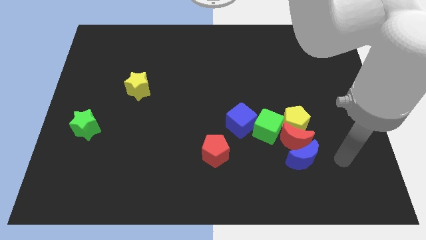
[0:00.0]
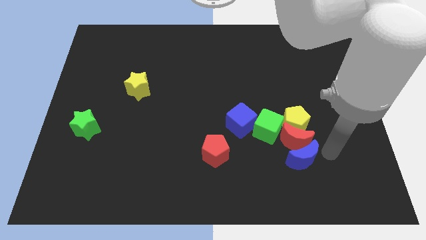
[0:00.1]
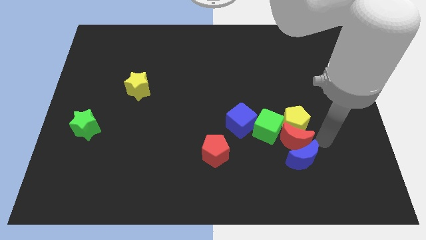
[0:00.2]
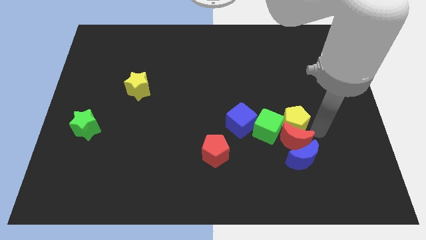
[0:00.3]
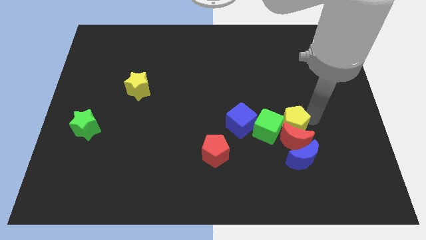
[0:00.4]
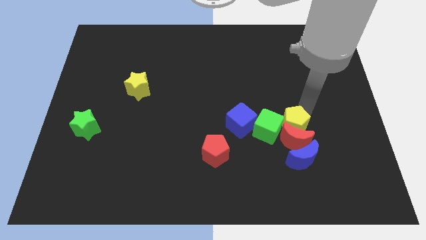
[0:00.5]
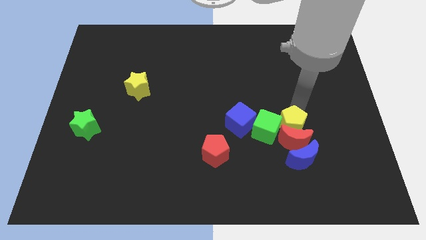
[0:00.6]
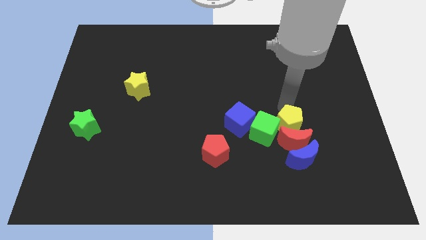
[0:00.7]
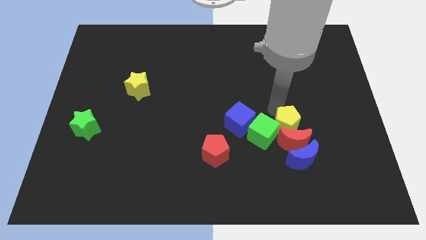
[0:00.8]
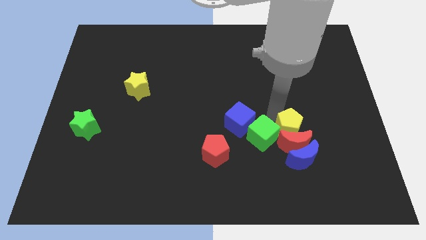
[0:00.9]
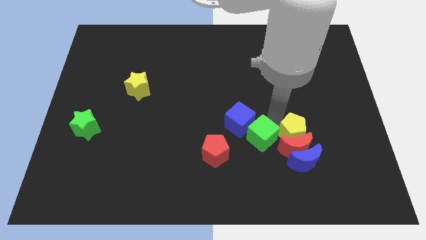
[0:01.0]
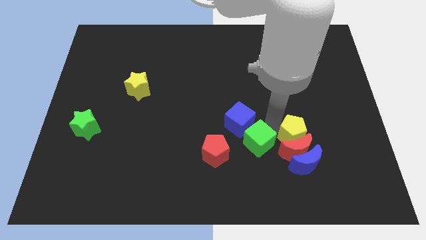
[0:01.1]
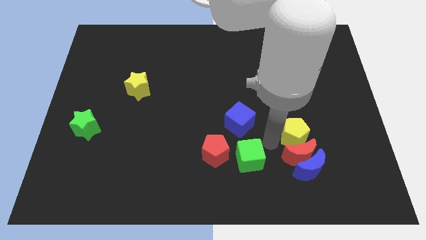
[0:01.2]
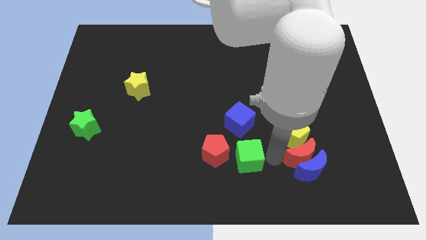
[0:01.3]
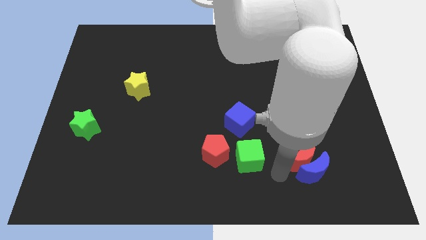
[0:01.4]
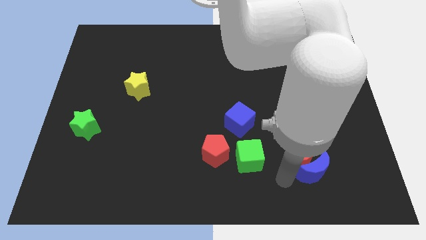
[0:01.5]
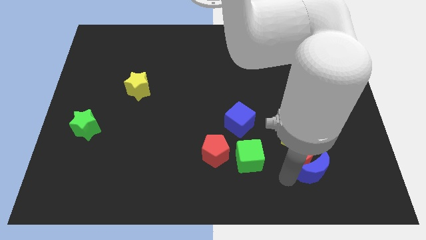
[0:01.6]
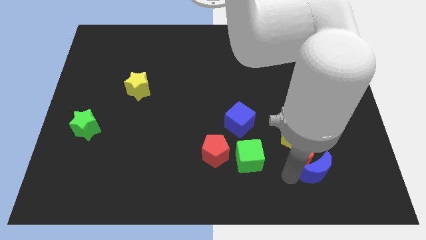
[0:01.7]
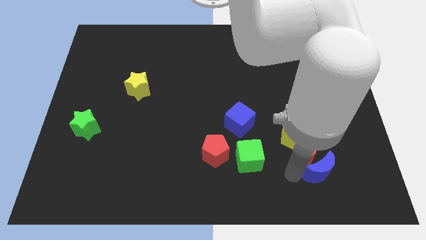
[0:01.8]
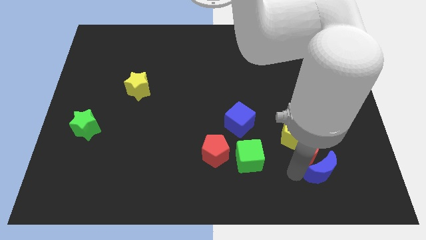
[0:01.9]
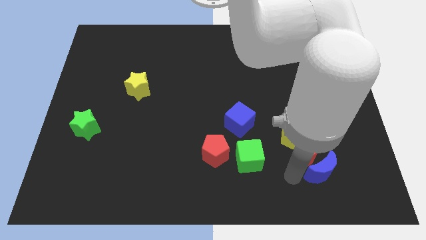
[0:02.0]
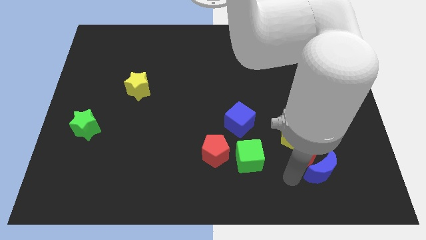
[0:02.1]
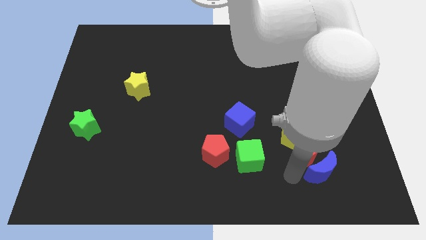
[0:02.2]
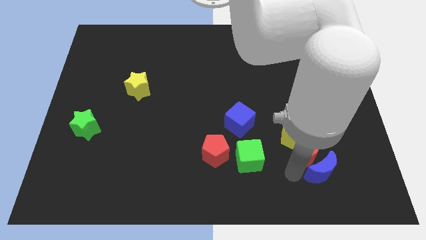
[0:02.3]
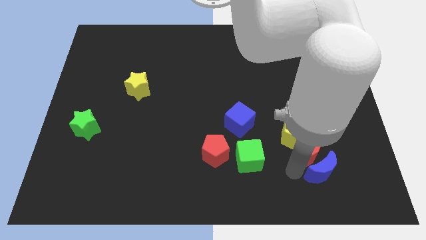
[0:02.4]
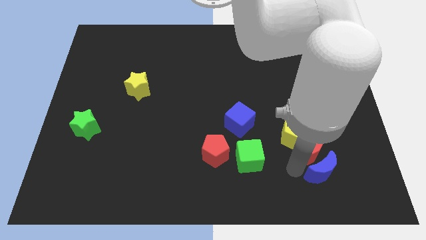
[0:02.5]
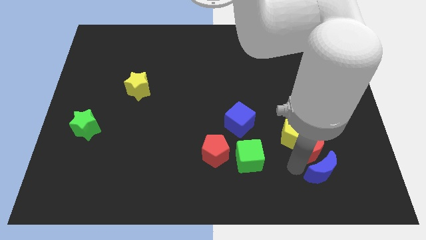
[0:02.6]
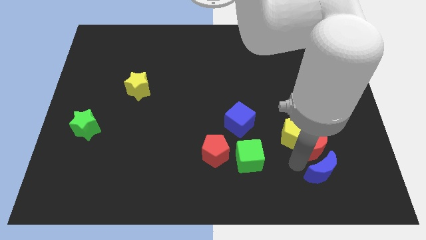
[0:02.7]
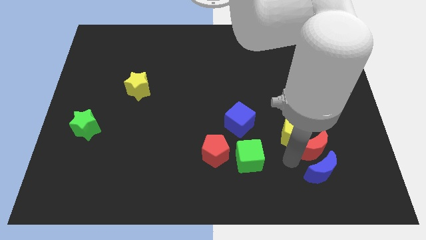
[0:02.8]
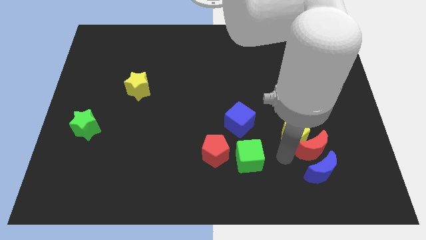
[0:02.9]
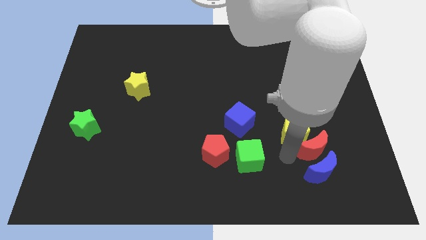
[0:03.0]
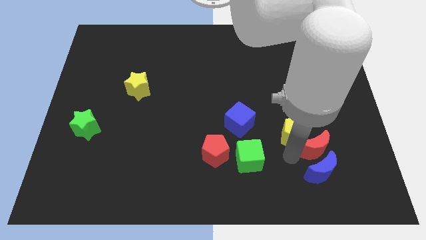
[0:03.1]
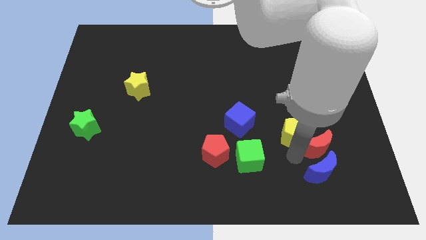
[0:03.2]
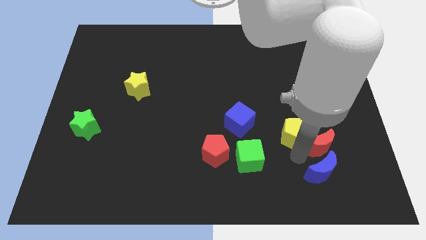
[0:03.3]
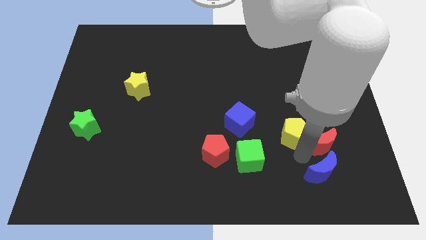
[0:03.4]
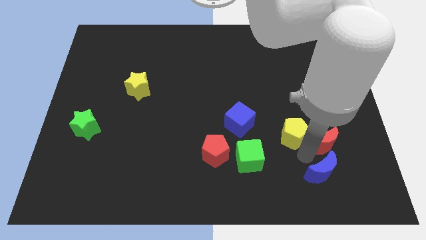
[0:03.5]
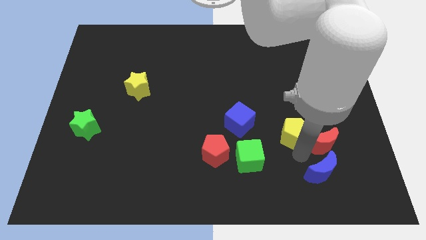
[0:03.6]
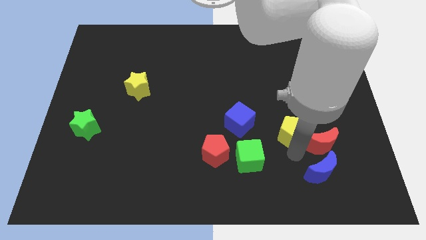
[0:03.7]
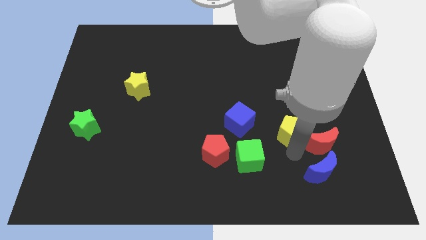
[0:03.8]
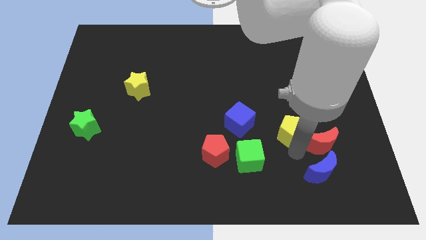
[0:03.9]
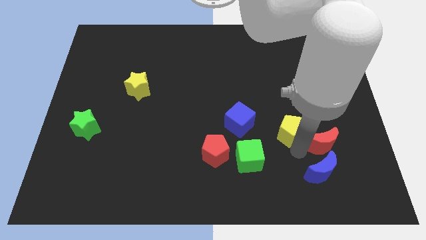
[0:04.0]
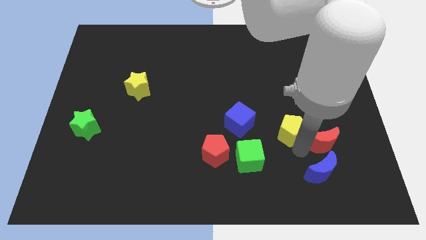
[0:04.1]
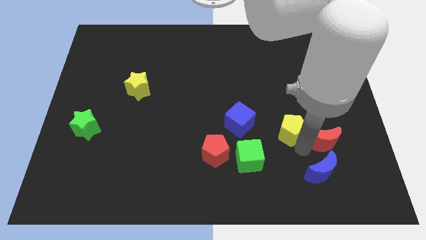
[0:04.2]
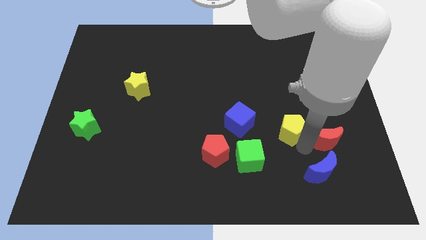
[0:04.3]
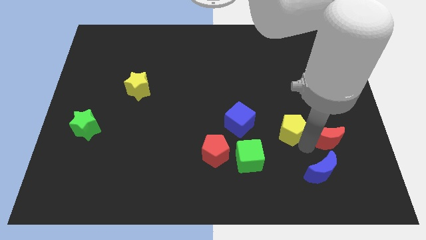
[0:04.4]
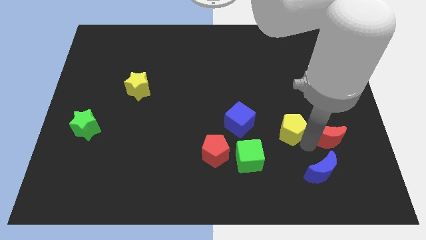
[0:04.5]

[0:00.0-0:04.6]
pull the red moon apart from the group of blocks

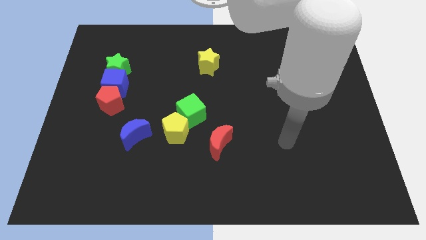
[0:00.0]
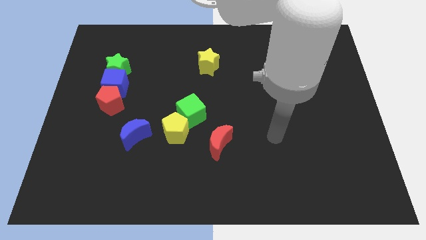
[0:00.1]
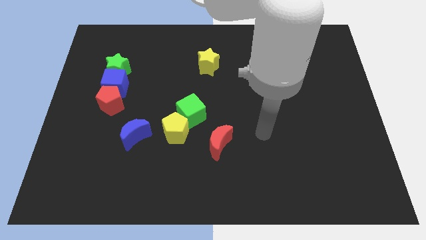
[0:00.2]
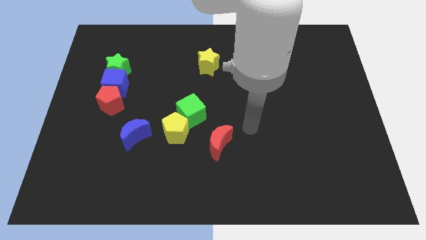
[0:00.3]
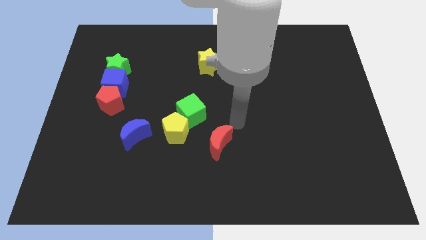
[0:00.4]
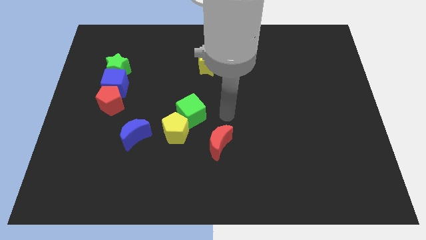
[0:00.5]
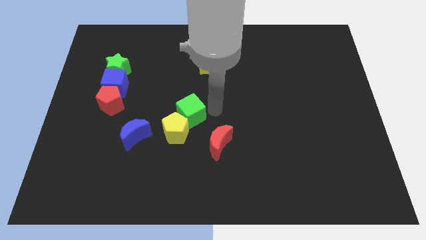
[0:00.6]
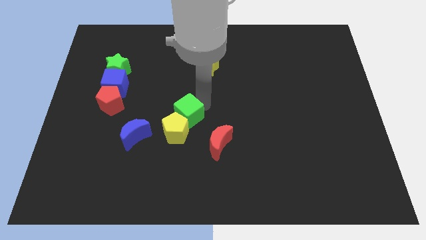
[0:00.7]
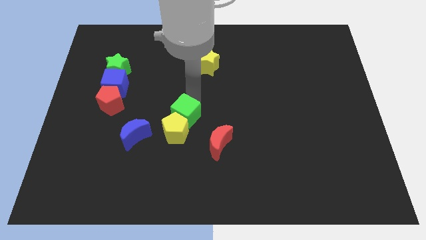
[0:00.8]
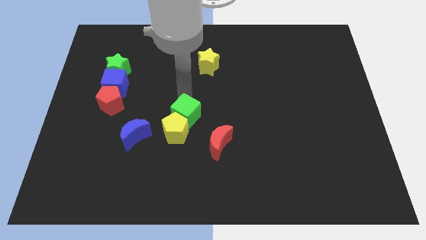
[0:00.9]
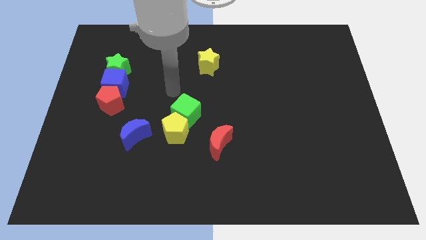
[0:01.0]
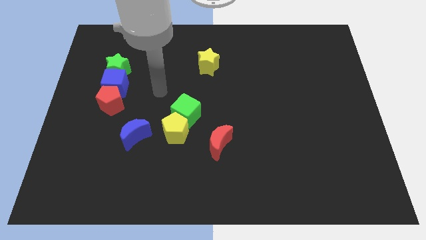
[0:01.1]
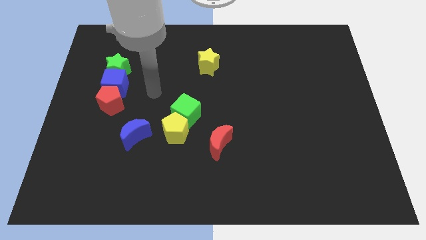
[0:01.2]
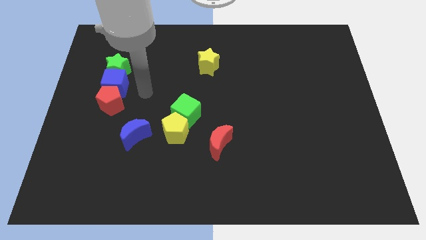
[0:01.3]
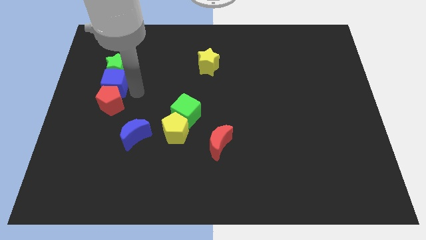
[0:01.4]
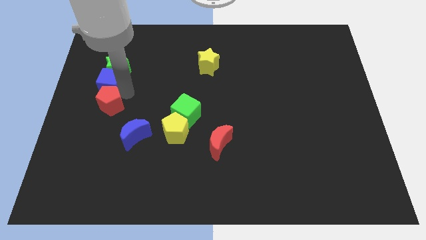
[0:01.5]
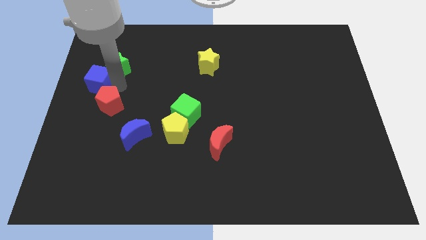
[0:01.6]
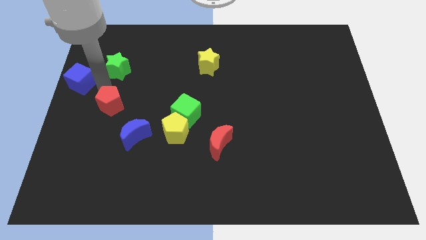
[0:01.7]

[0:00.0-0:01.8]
separate the red pentagon from the blue cube

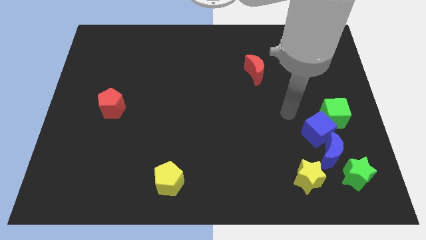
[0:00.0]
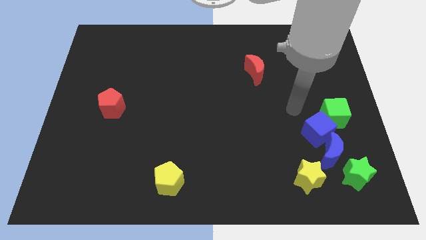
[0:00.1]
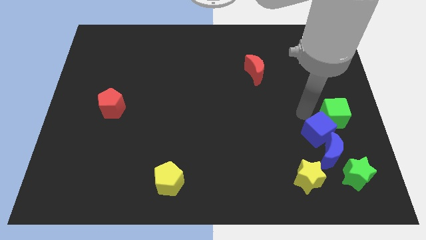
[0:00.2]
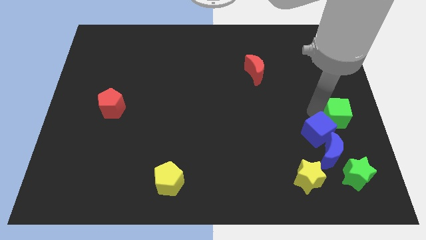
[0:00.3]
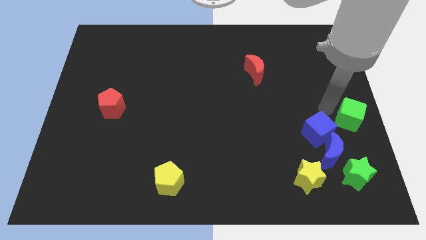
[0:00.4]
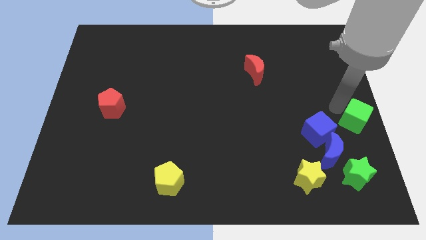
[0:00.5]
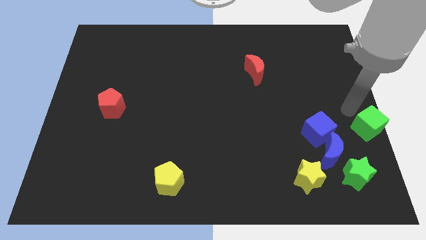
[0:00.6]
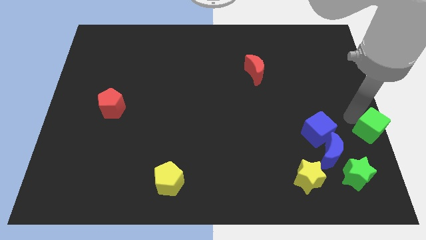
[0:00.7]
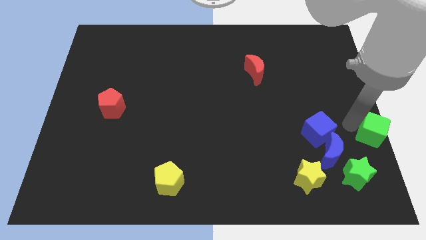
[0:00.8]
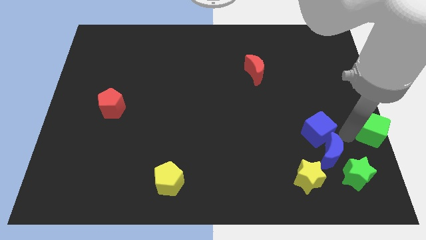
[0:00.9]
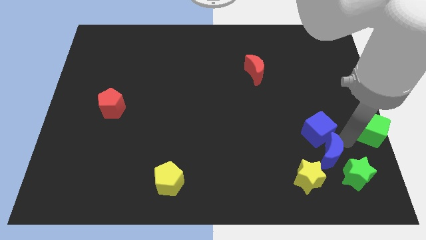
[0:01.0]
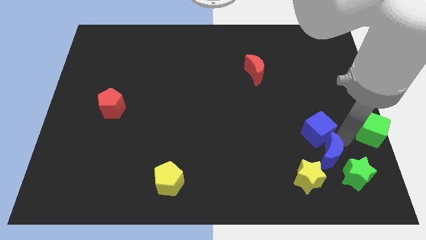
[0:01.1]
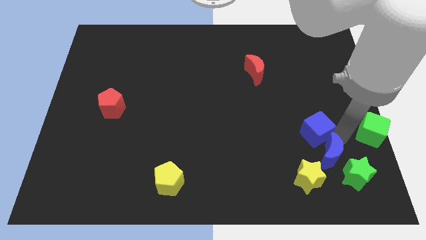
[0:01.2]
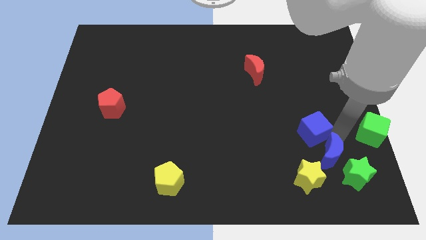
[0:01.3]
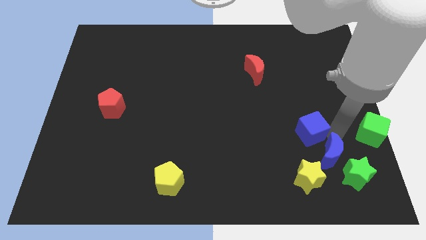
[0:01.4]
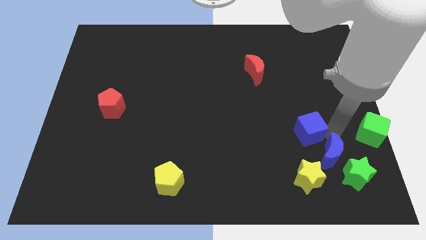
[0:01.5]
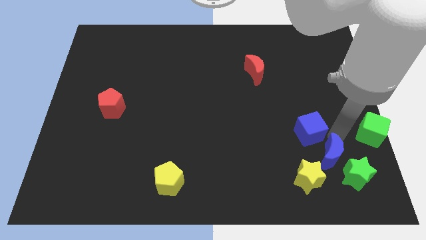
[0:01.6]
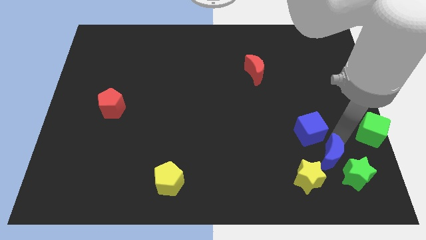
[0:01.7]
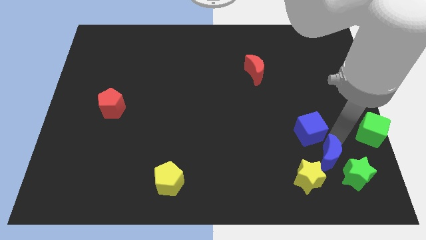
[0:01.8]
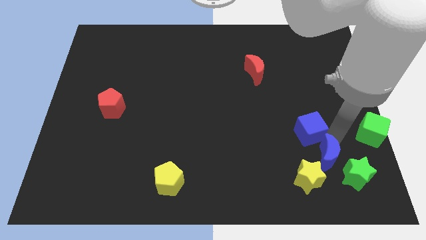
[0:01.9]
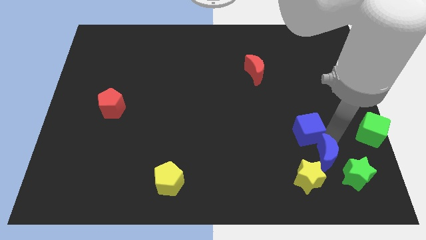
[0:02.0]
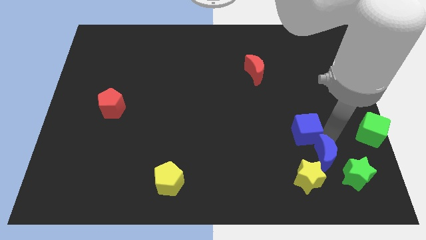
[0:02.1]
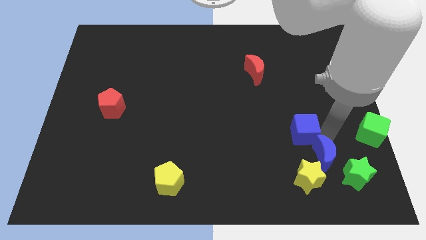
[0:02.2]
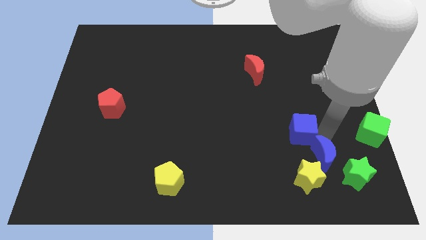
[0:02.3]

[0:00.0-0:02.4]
separate the blue cube from the blue moon and green cube

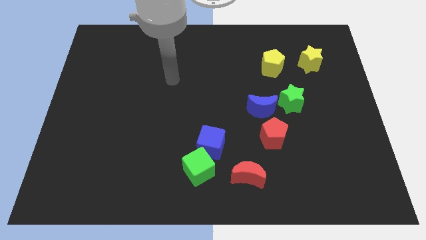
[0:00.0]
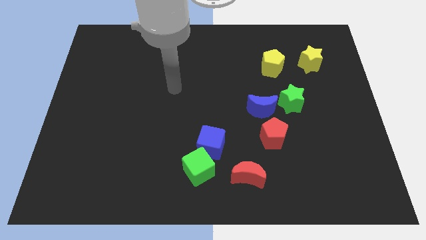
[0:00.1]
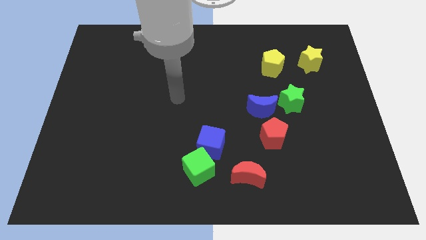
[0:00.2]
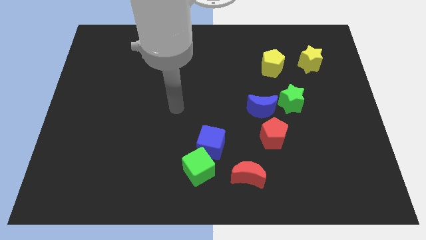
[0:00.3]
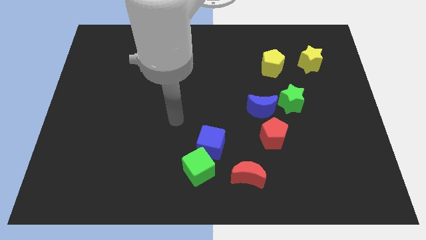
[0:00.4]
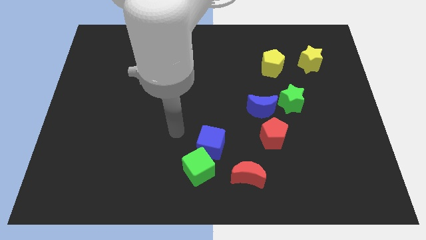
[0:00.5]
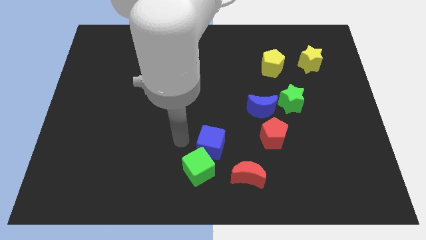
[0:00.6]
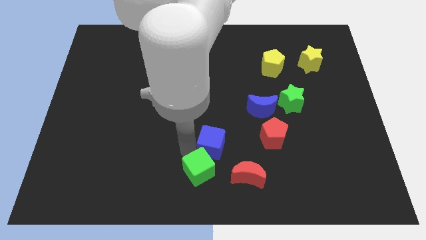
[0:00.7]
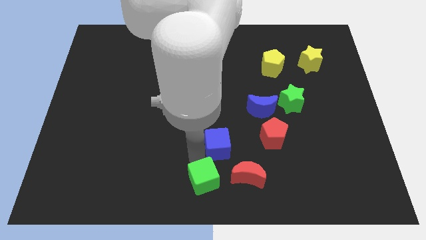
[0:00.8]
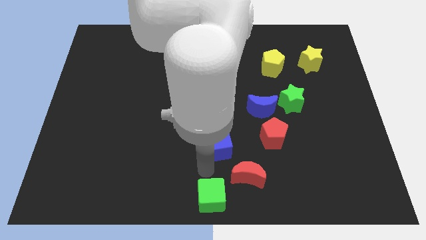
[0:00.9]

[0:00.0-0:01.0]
move the blue cube away from the green cube
